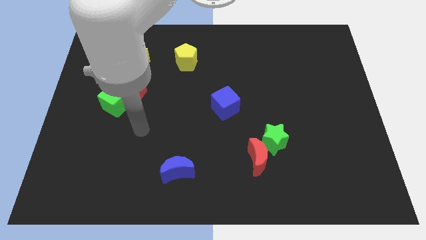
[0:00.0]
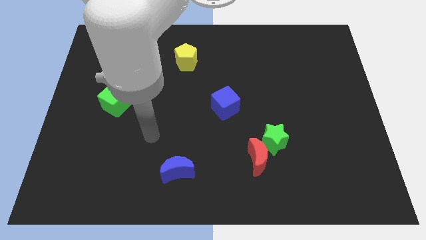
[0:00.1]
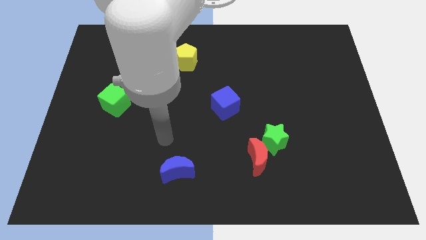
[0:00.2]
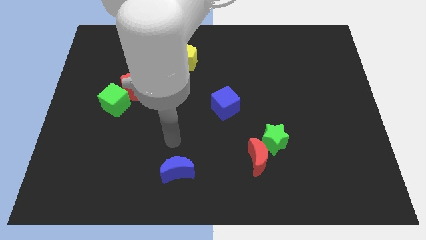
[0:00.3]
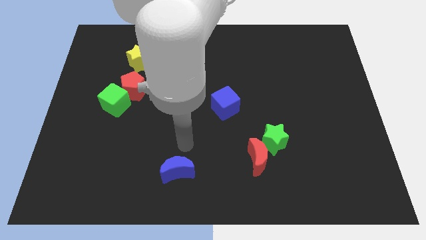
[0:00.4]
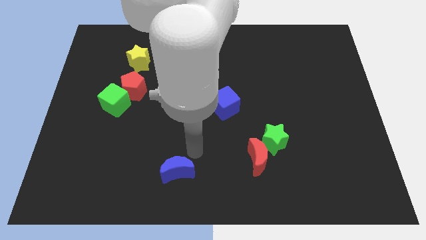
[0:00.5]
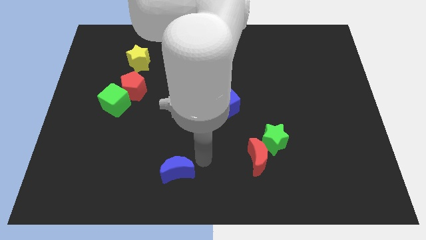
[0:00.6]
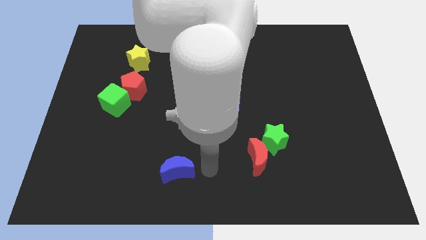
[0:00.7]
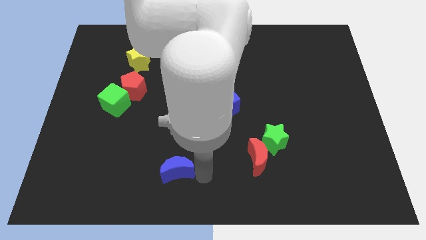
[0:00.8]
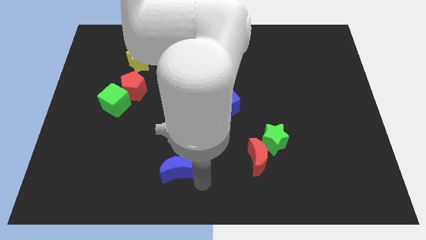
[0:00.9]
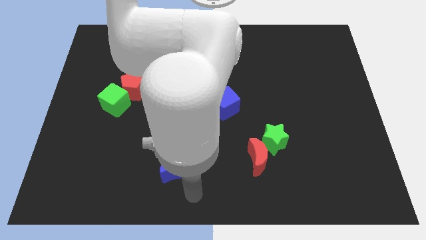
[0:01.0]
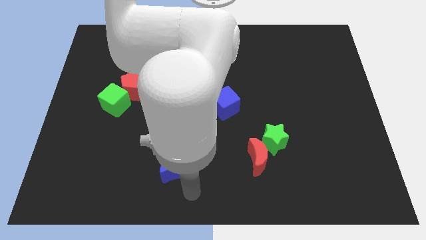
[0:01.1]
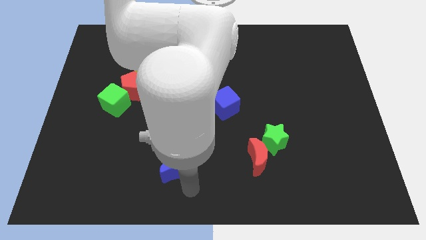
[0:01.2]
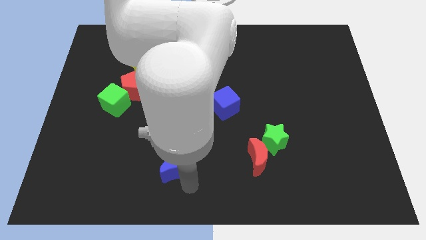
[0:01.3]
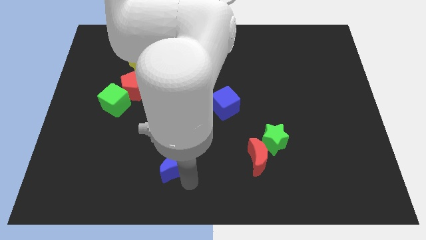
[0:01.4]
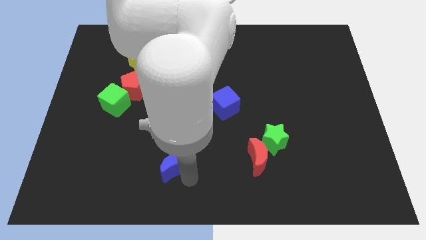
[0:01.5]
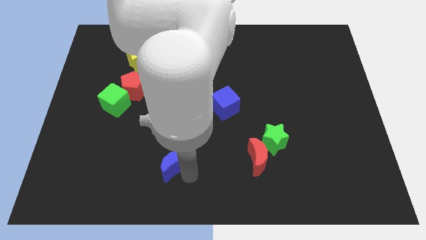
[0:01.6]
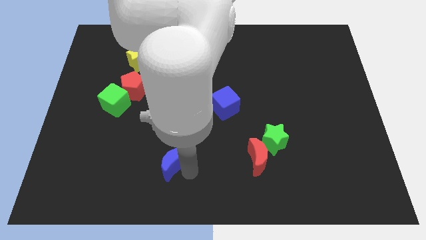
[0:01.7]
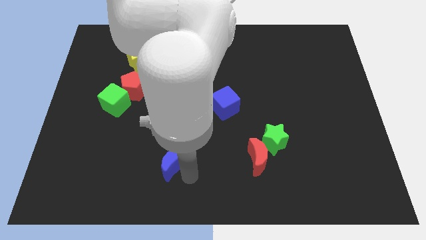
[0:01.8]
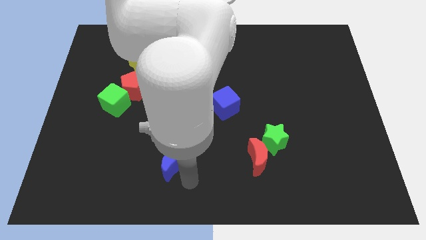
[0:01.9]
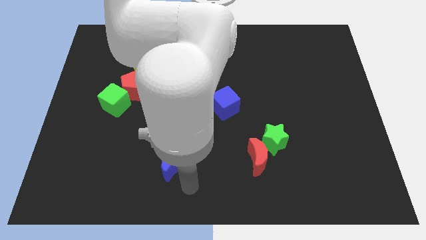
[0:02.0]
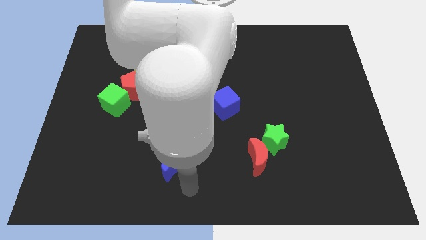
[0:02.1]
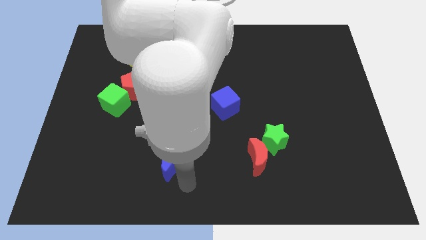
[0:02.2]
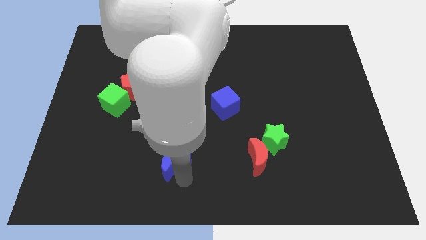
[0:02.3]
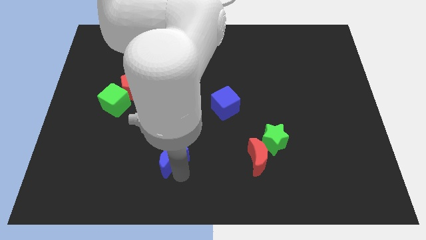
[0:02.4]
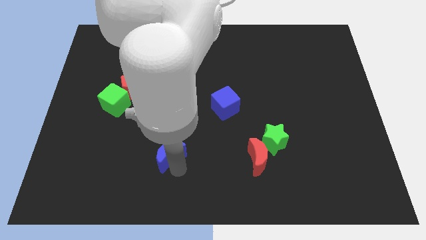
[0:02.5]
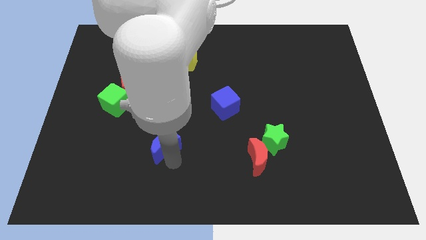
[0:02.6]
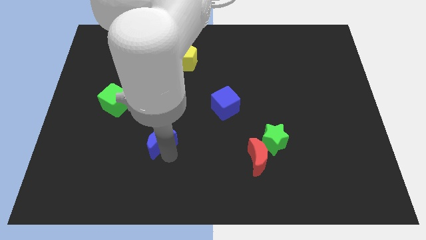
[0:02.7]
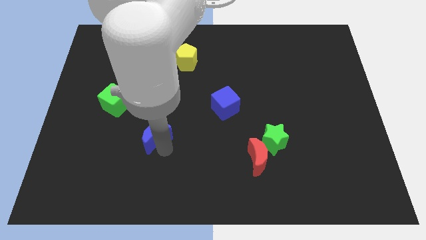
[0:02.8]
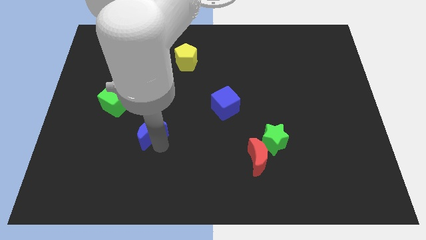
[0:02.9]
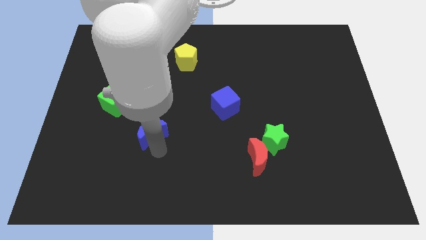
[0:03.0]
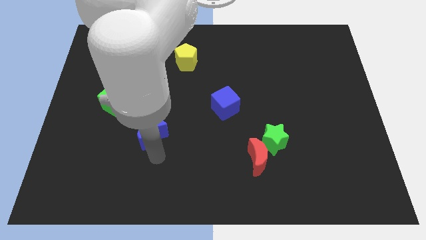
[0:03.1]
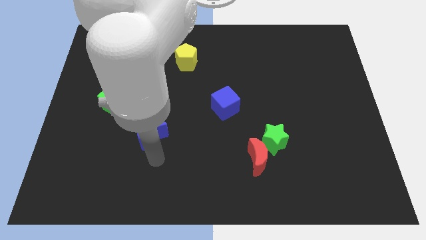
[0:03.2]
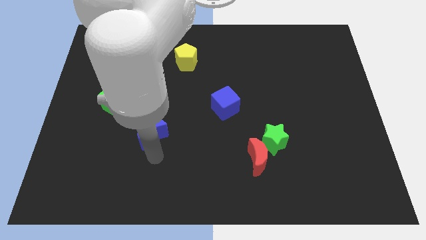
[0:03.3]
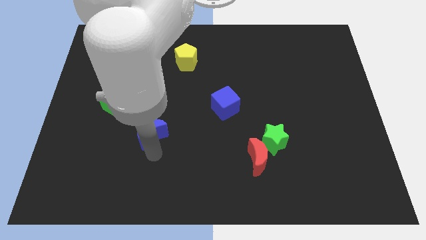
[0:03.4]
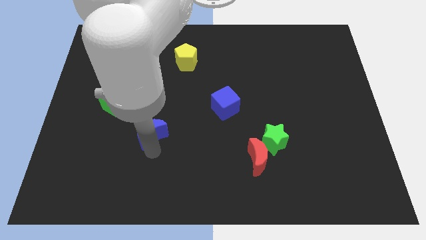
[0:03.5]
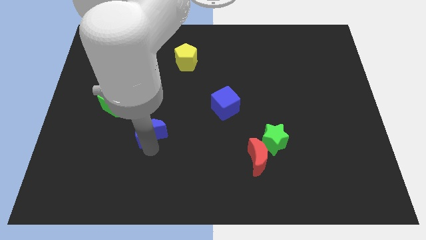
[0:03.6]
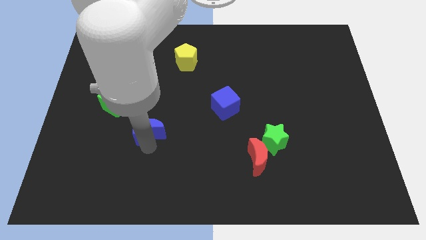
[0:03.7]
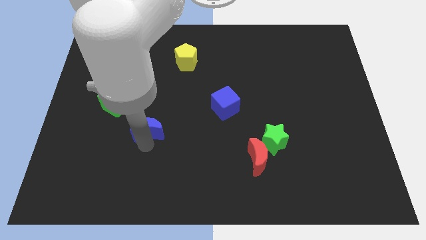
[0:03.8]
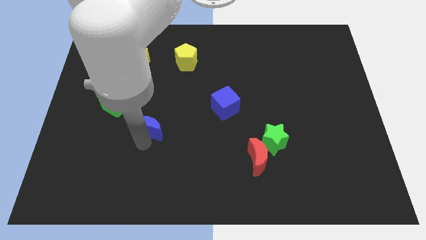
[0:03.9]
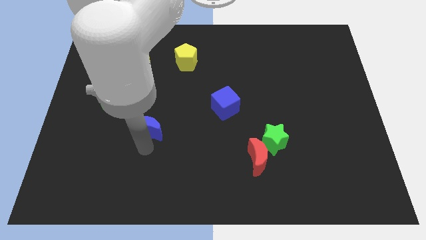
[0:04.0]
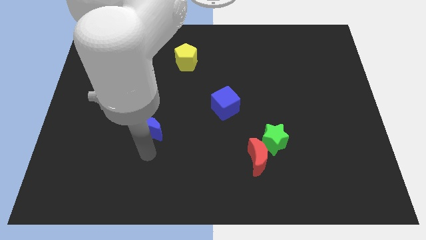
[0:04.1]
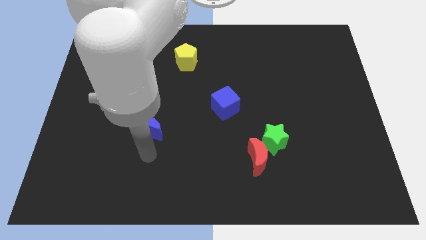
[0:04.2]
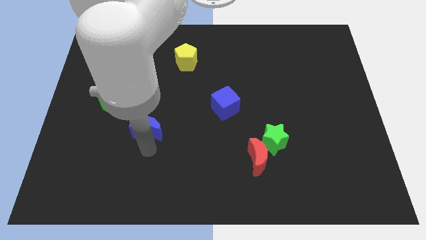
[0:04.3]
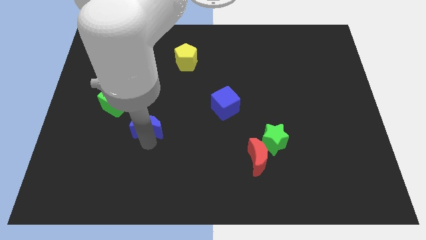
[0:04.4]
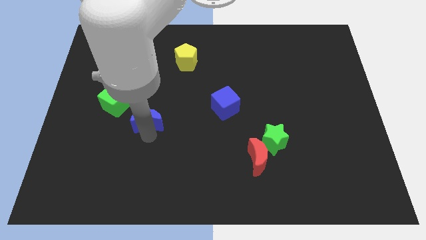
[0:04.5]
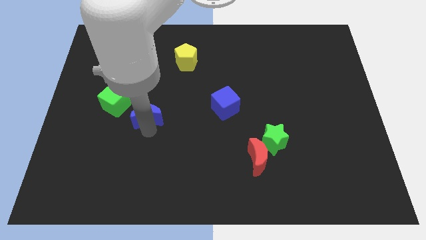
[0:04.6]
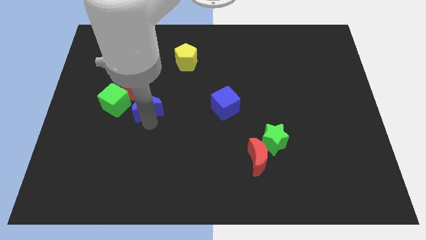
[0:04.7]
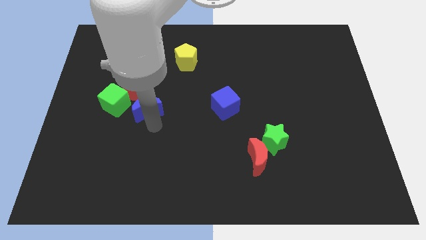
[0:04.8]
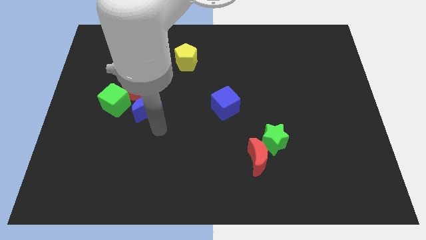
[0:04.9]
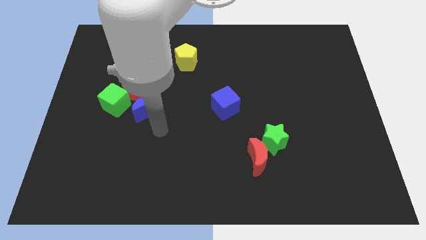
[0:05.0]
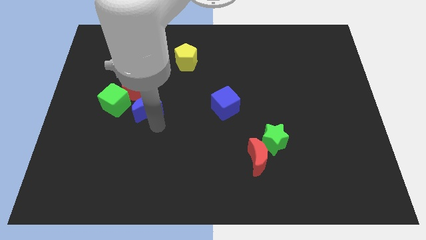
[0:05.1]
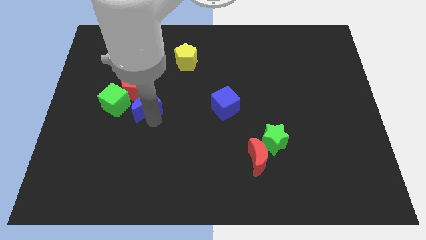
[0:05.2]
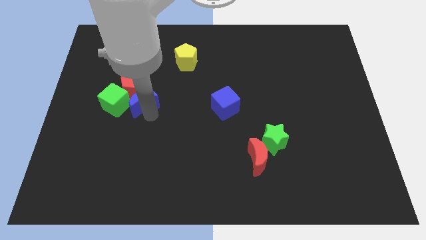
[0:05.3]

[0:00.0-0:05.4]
move the blue moon close to the red pentagon

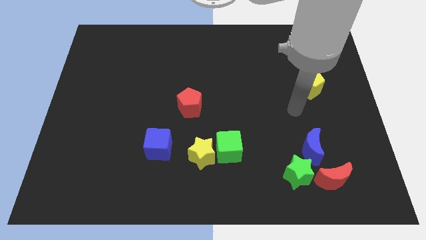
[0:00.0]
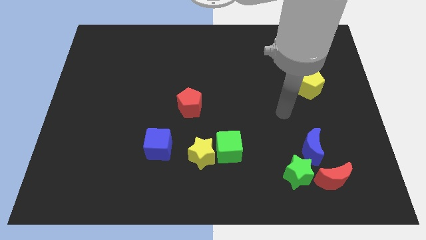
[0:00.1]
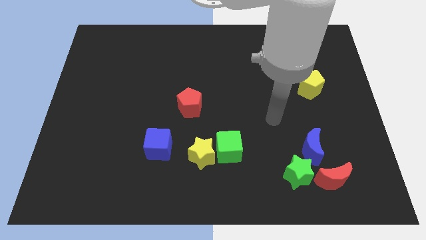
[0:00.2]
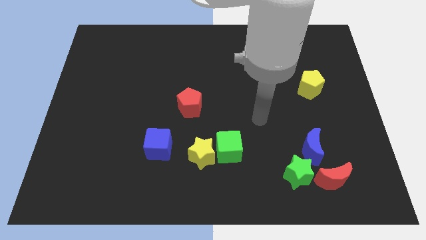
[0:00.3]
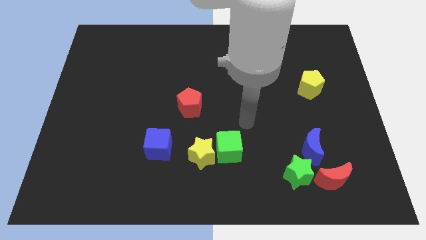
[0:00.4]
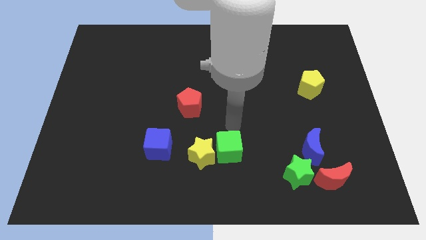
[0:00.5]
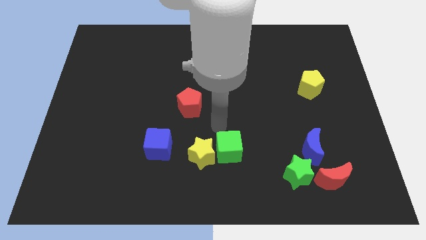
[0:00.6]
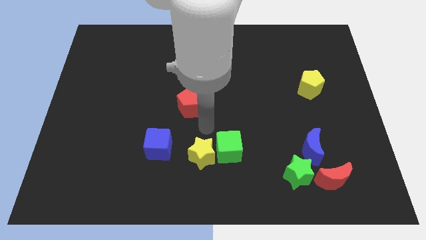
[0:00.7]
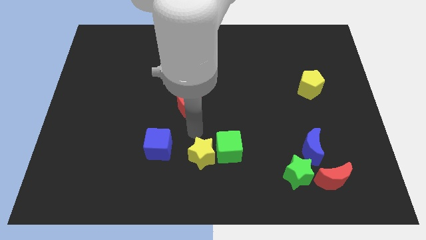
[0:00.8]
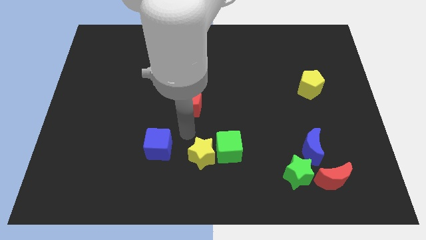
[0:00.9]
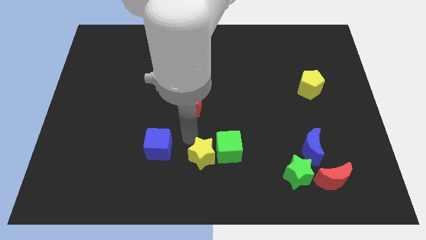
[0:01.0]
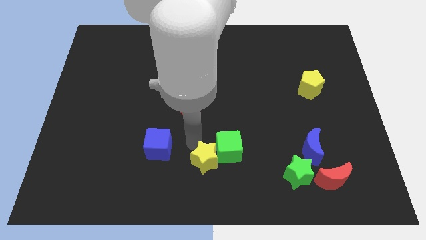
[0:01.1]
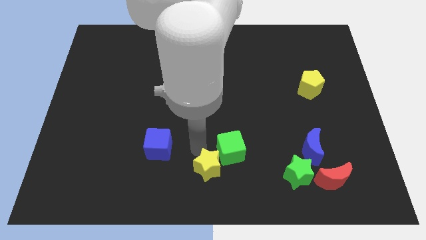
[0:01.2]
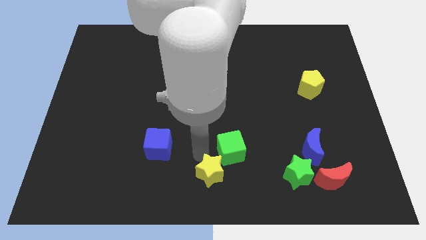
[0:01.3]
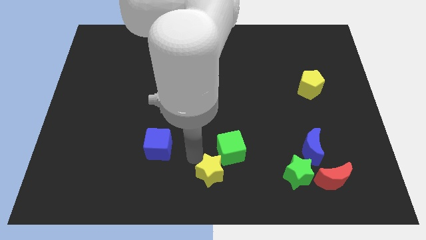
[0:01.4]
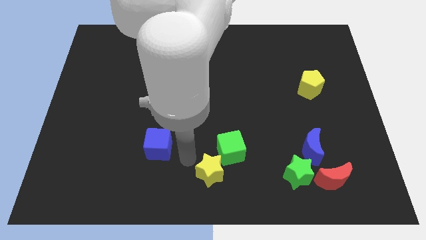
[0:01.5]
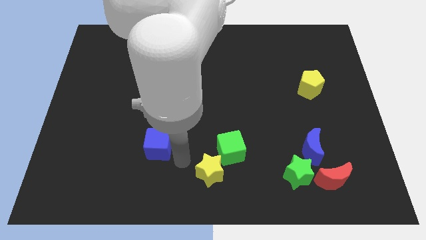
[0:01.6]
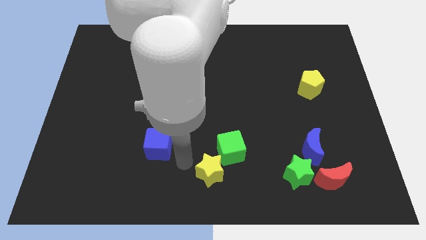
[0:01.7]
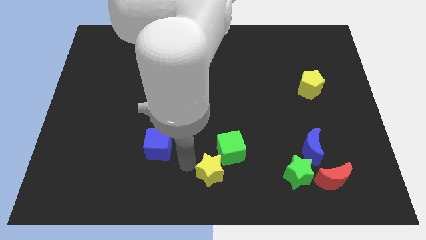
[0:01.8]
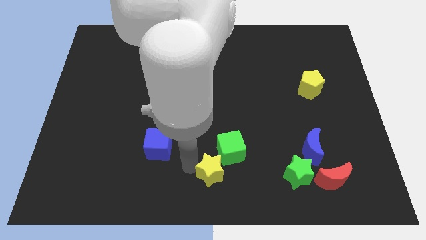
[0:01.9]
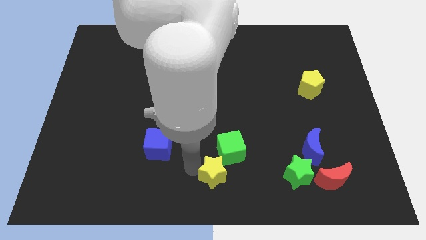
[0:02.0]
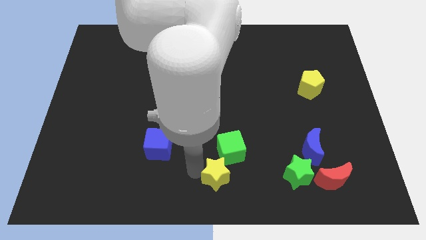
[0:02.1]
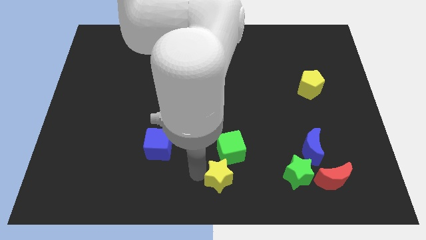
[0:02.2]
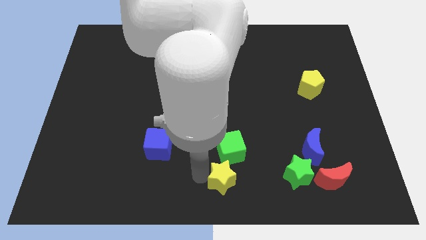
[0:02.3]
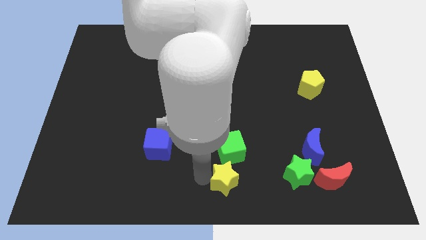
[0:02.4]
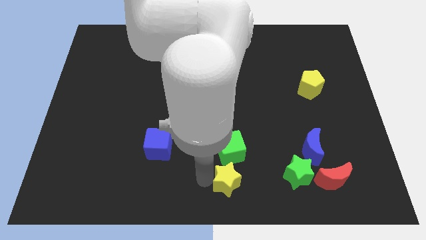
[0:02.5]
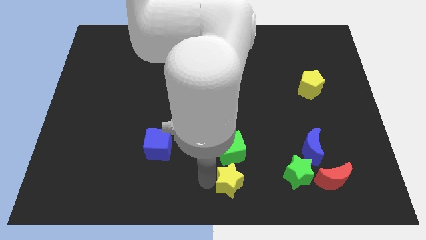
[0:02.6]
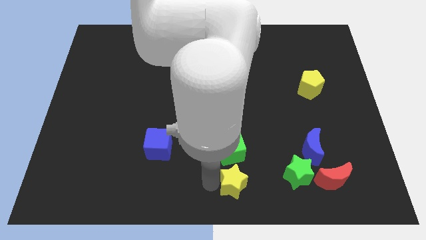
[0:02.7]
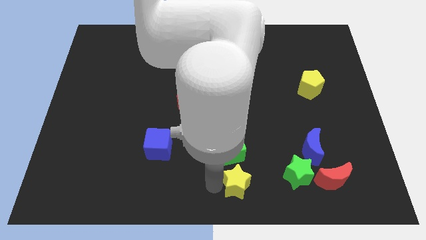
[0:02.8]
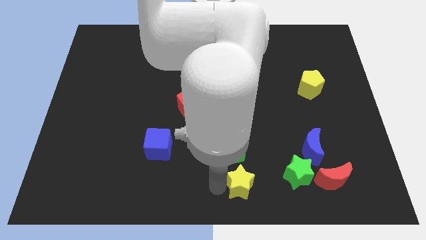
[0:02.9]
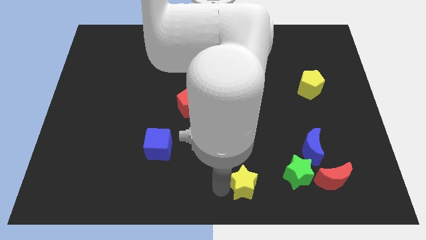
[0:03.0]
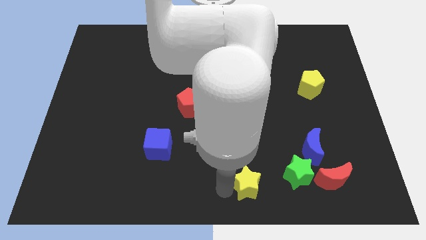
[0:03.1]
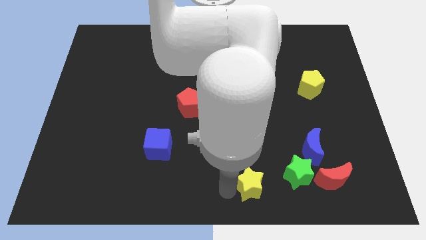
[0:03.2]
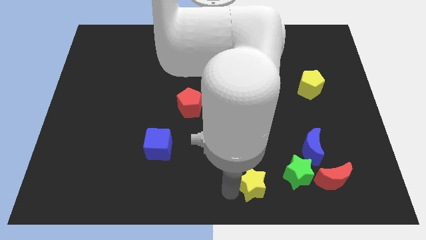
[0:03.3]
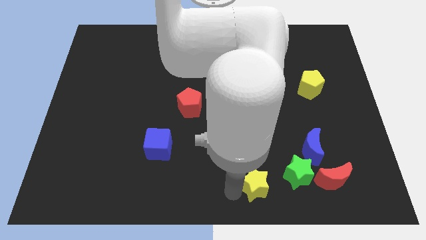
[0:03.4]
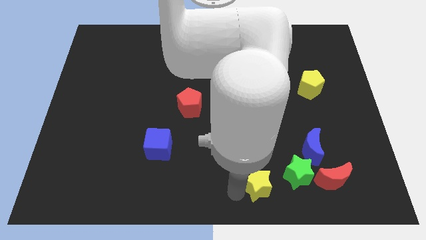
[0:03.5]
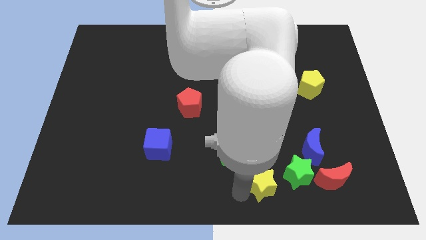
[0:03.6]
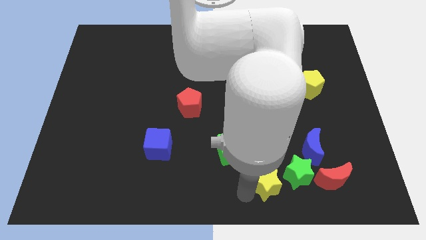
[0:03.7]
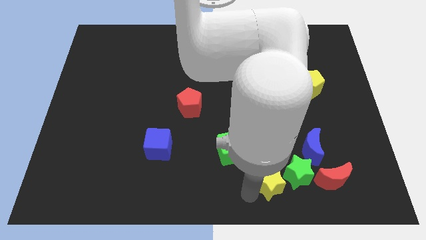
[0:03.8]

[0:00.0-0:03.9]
move the yellow star close to the green star
